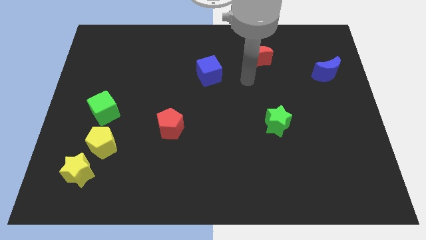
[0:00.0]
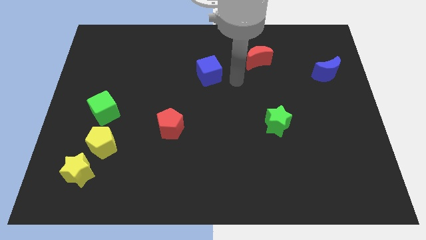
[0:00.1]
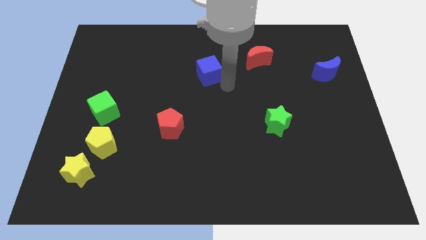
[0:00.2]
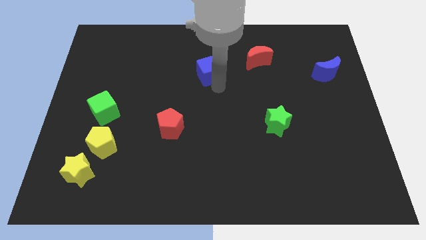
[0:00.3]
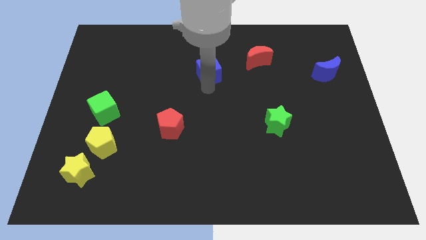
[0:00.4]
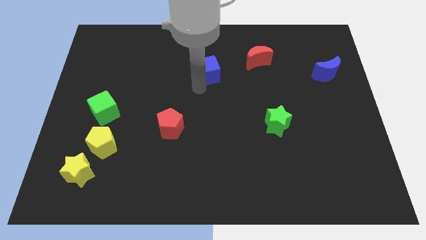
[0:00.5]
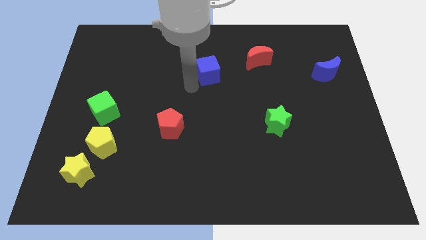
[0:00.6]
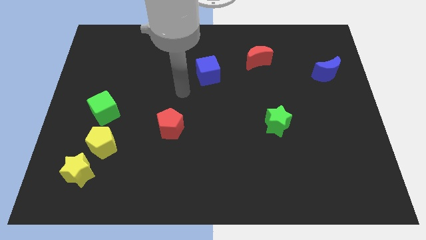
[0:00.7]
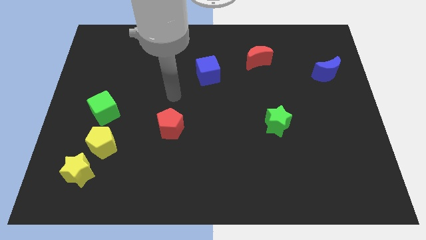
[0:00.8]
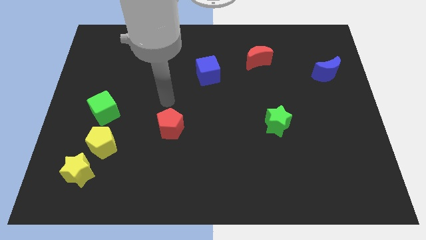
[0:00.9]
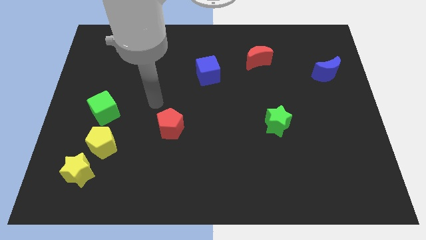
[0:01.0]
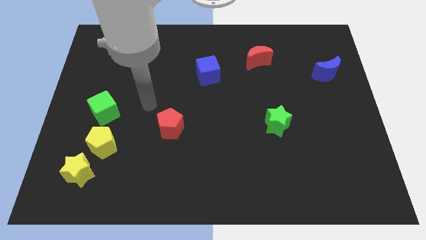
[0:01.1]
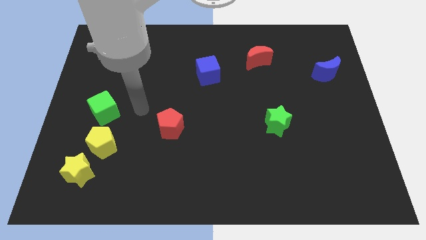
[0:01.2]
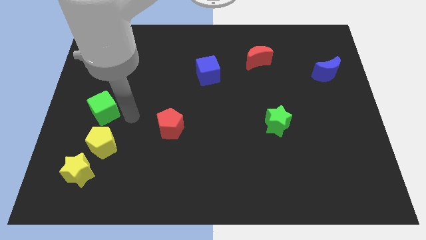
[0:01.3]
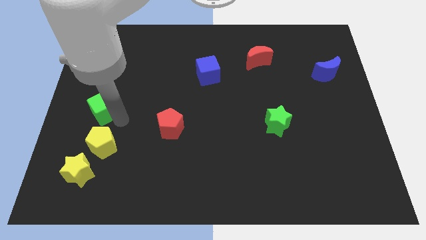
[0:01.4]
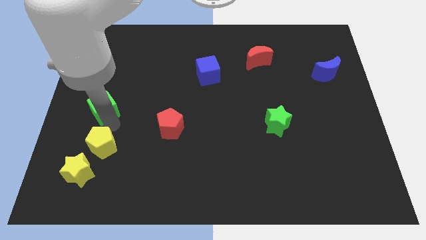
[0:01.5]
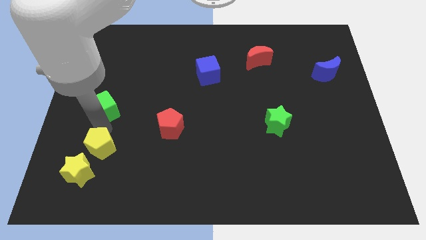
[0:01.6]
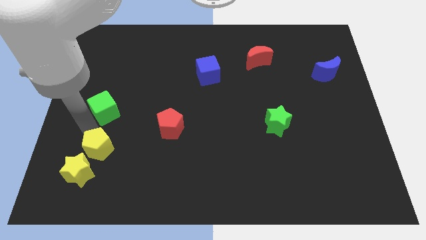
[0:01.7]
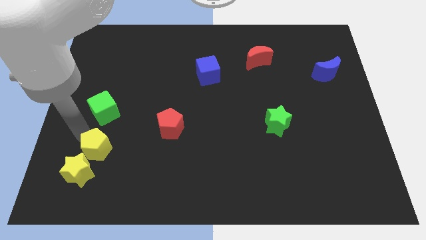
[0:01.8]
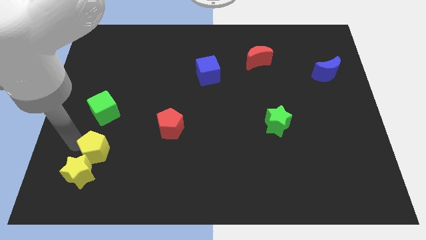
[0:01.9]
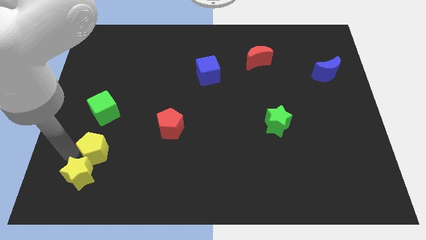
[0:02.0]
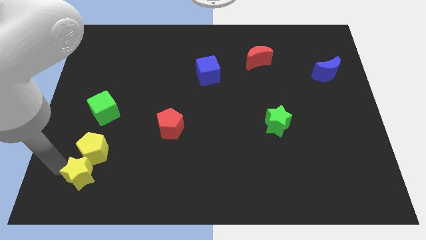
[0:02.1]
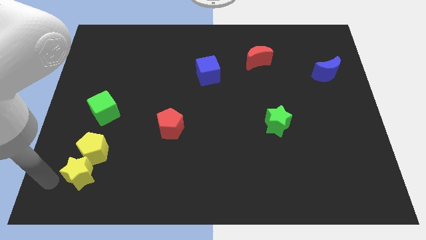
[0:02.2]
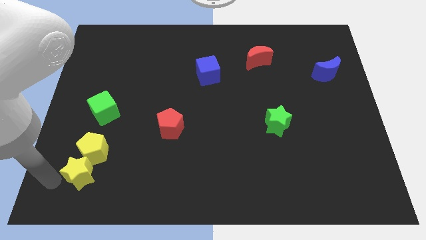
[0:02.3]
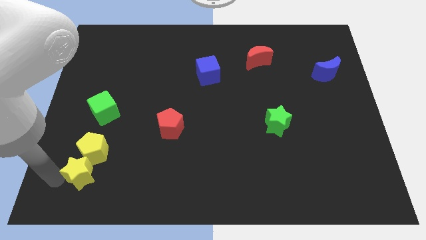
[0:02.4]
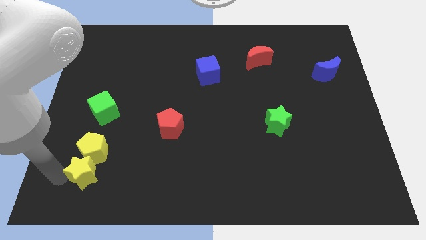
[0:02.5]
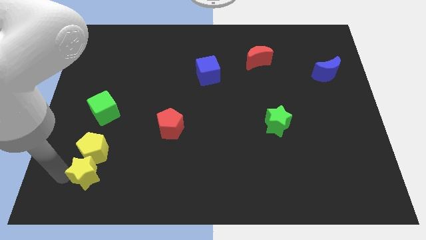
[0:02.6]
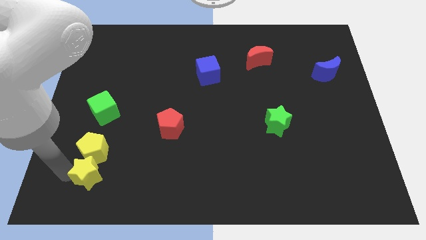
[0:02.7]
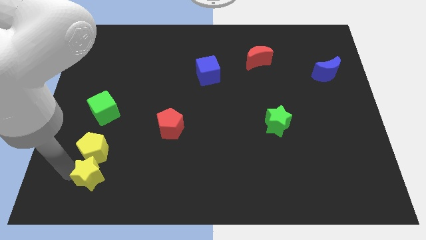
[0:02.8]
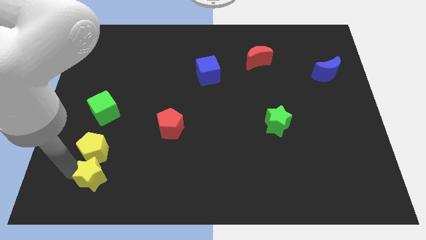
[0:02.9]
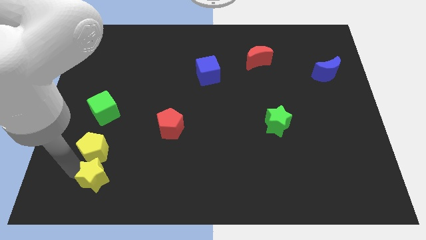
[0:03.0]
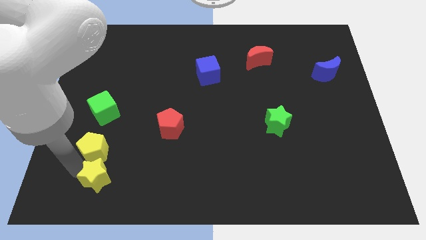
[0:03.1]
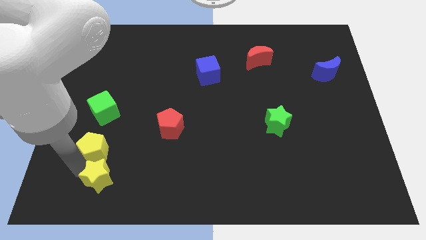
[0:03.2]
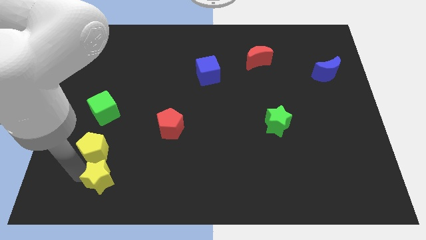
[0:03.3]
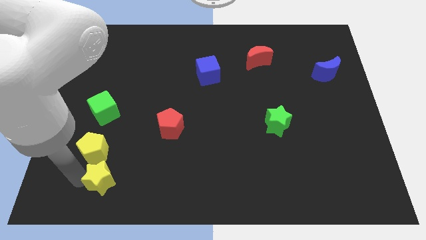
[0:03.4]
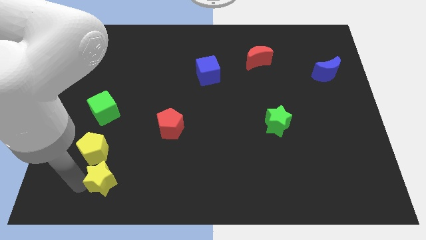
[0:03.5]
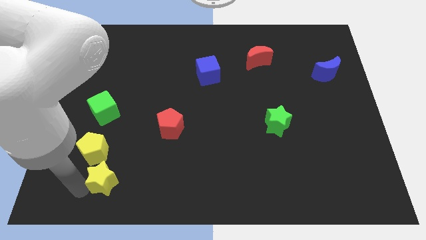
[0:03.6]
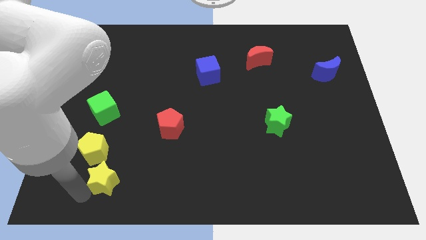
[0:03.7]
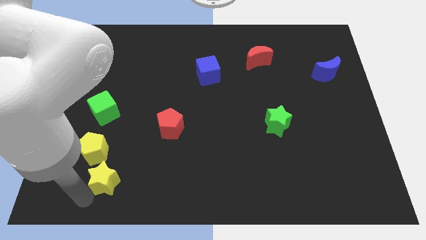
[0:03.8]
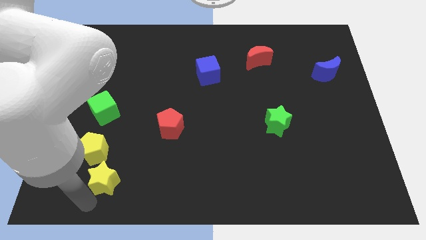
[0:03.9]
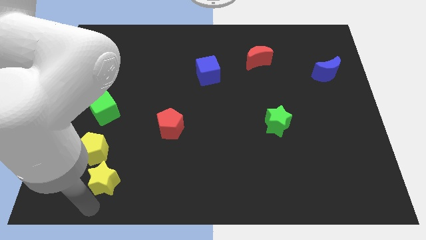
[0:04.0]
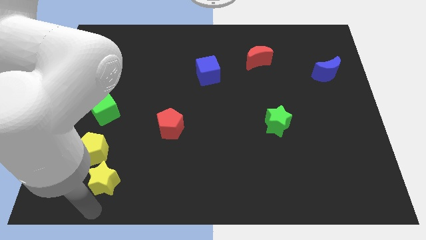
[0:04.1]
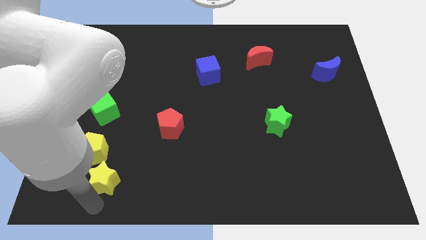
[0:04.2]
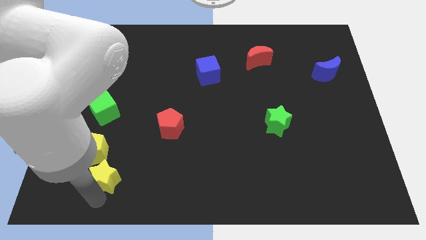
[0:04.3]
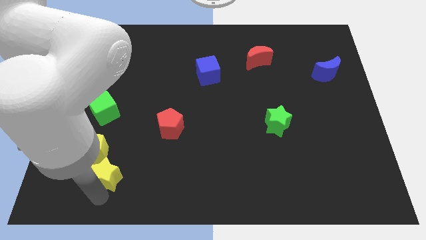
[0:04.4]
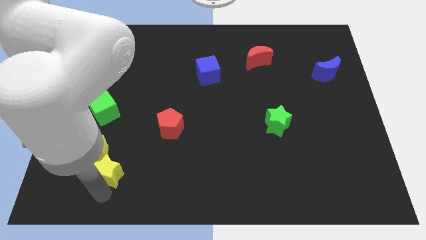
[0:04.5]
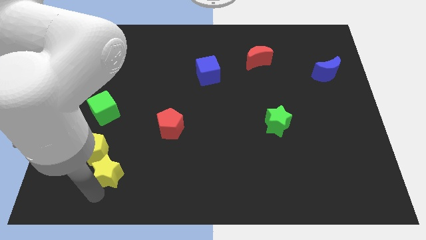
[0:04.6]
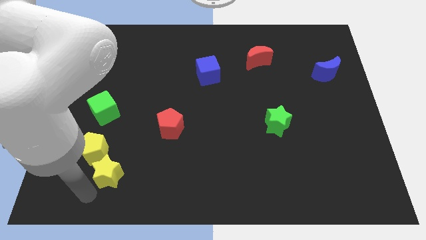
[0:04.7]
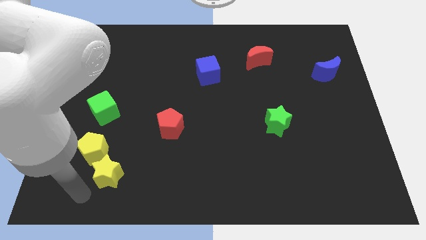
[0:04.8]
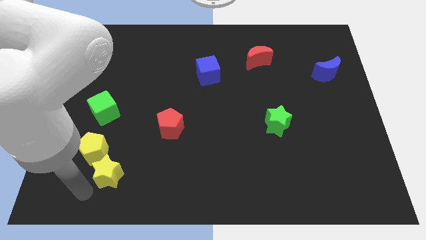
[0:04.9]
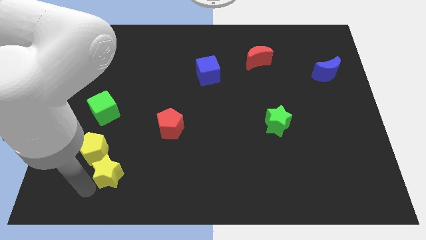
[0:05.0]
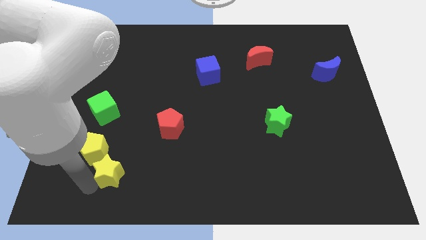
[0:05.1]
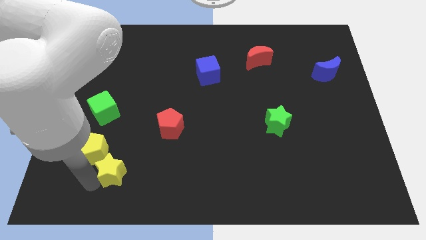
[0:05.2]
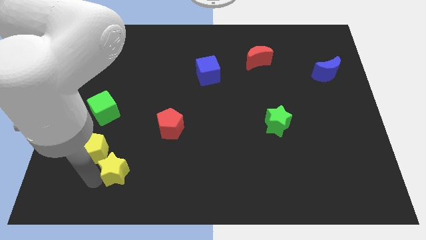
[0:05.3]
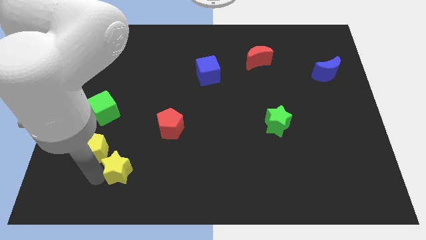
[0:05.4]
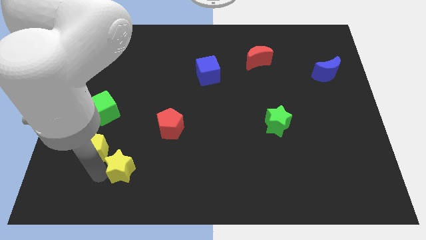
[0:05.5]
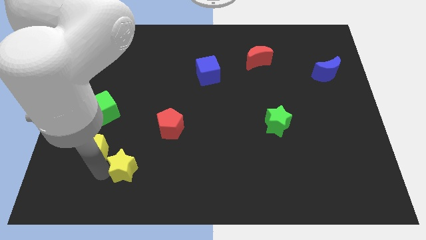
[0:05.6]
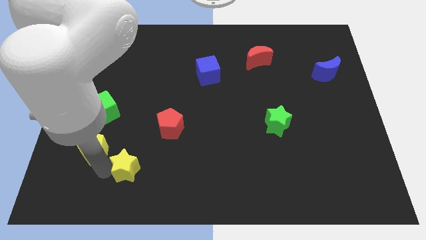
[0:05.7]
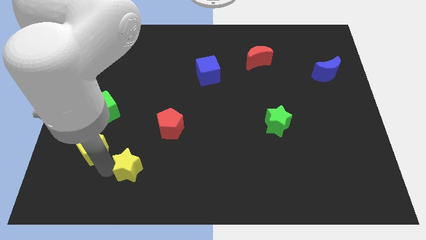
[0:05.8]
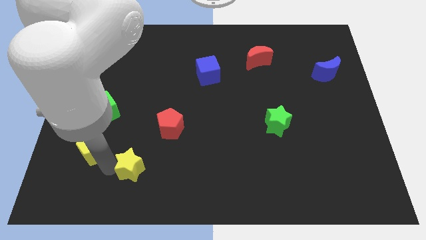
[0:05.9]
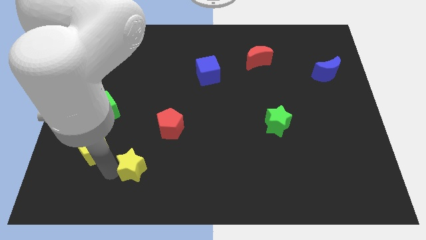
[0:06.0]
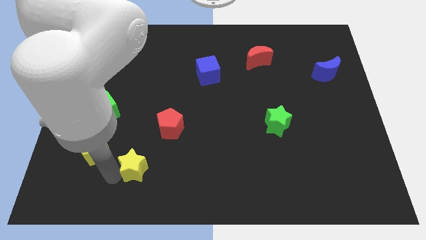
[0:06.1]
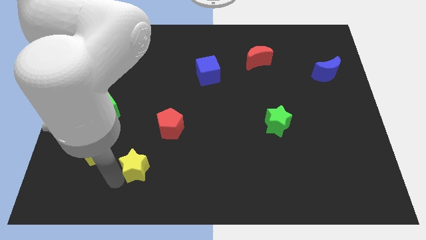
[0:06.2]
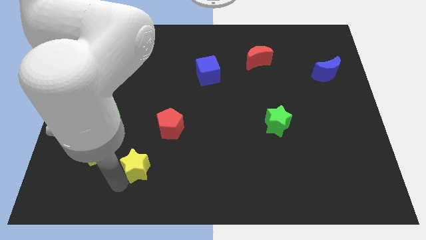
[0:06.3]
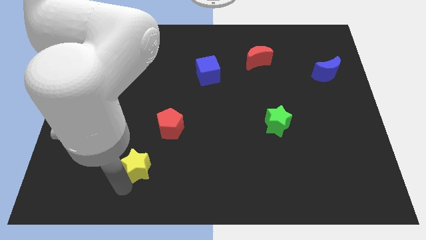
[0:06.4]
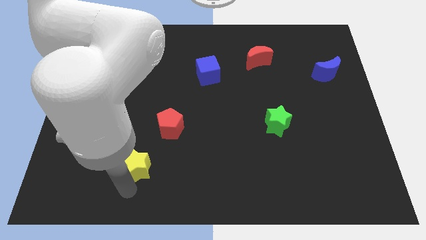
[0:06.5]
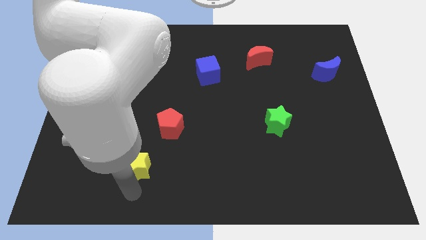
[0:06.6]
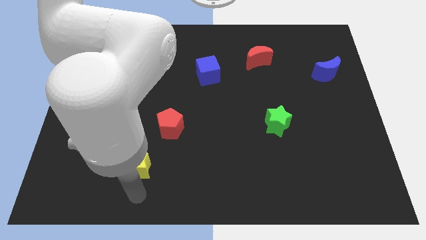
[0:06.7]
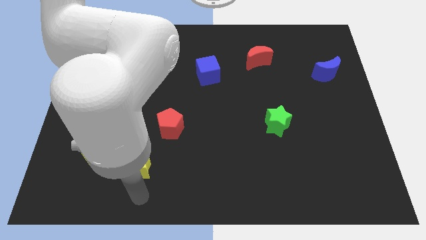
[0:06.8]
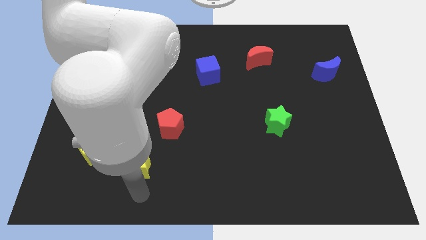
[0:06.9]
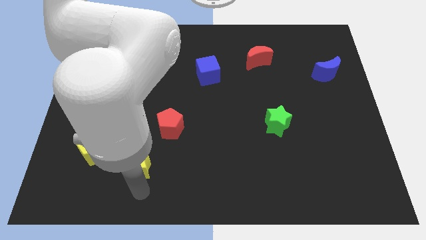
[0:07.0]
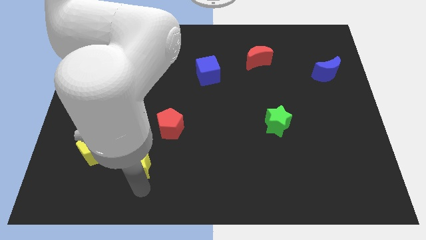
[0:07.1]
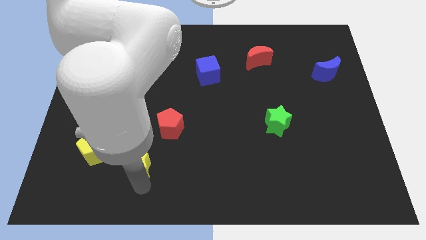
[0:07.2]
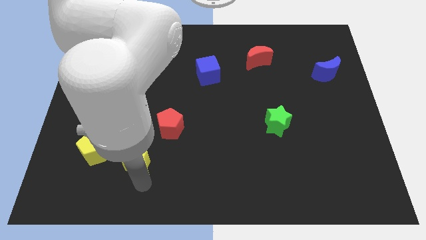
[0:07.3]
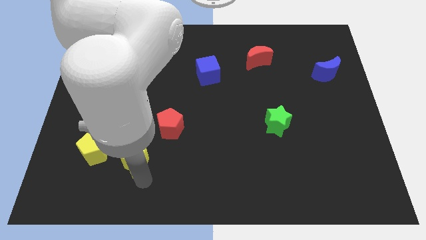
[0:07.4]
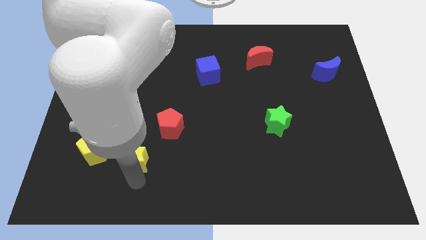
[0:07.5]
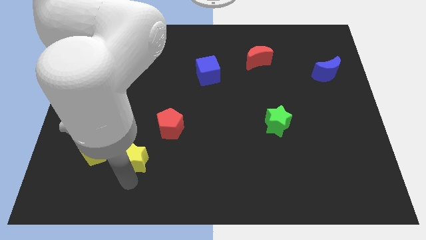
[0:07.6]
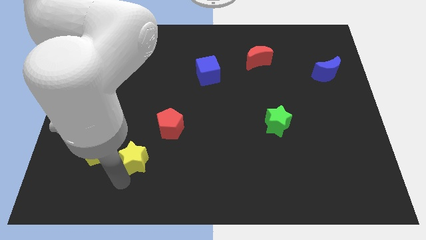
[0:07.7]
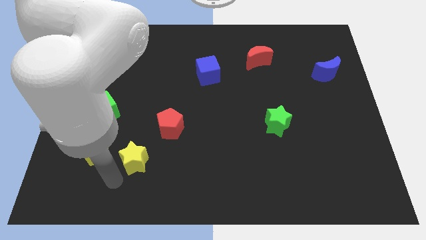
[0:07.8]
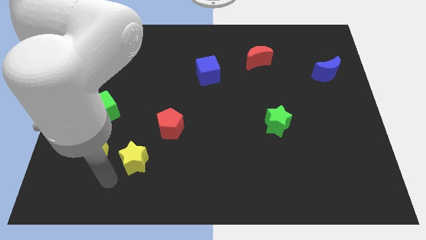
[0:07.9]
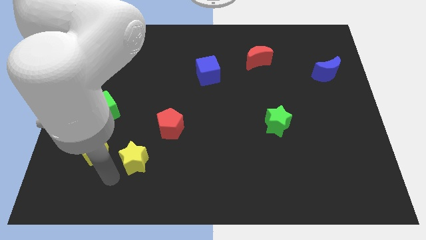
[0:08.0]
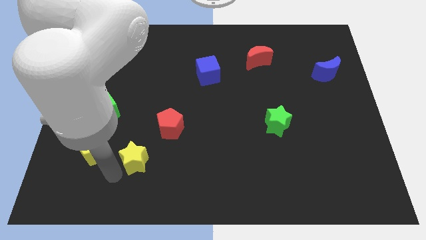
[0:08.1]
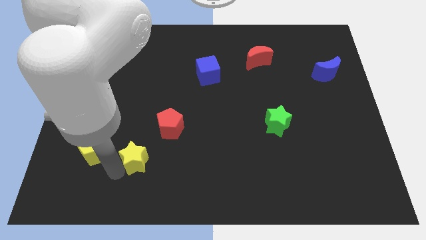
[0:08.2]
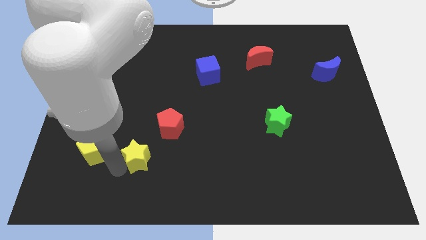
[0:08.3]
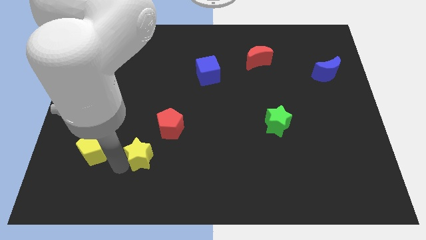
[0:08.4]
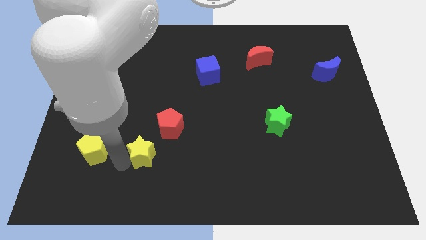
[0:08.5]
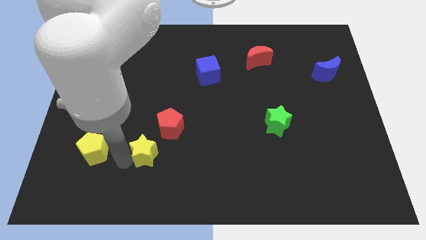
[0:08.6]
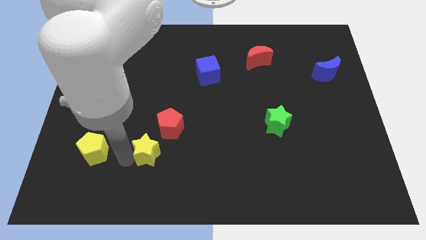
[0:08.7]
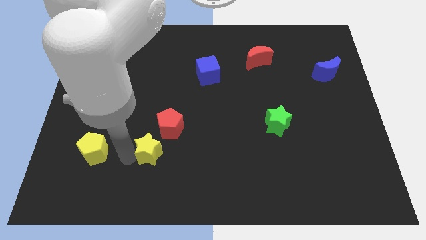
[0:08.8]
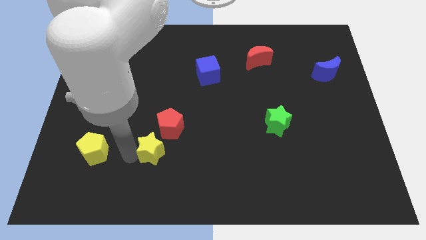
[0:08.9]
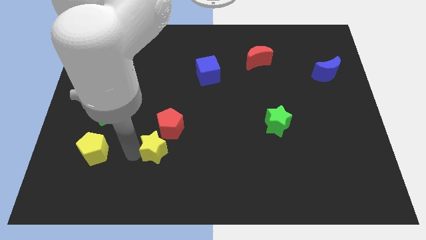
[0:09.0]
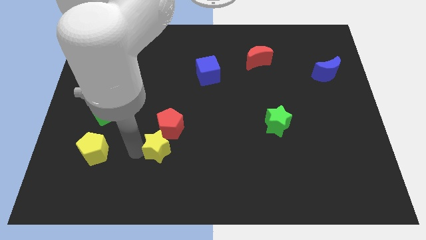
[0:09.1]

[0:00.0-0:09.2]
push the yellow star close to the red pentagon
